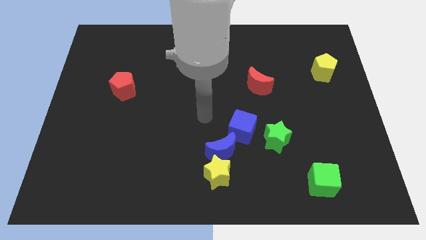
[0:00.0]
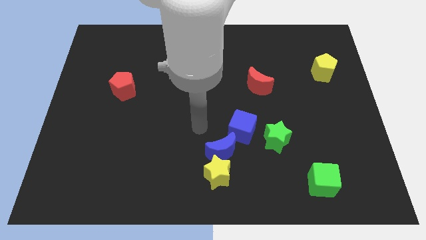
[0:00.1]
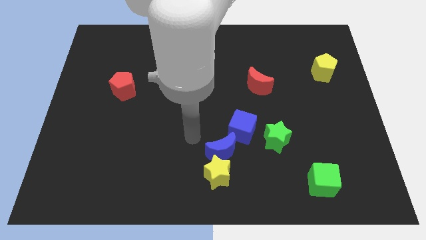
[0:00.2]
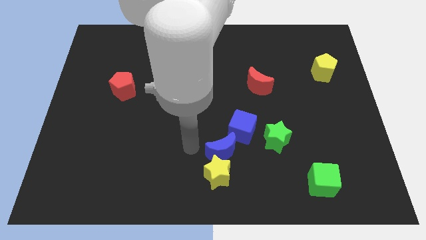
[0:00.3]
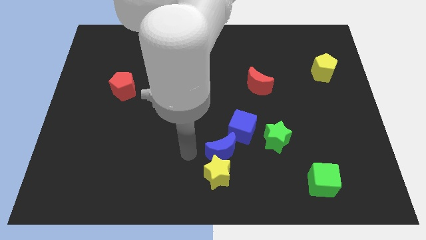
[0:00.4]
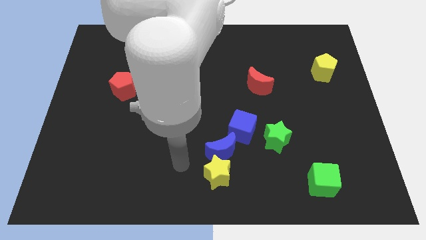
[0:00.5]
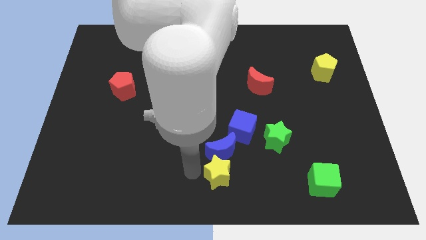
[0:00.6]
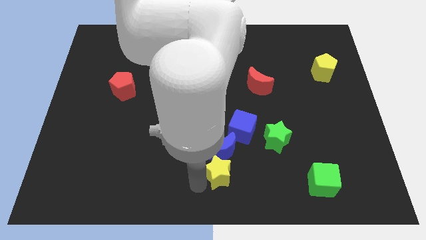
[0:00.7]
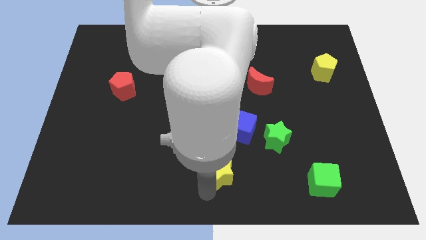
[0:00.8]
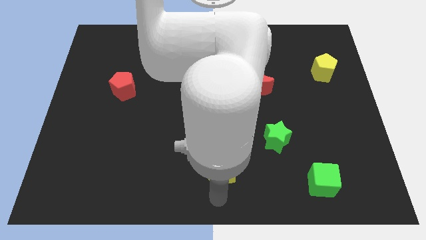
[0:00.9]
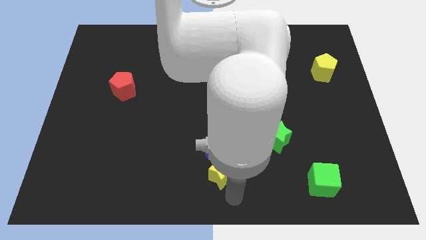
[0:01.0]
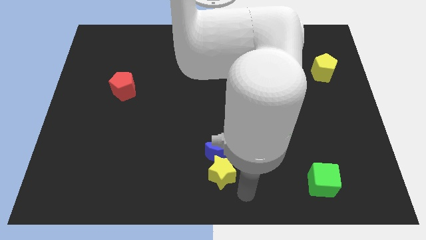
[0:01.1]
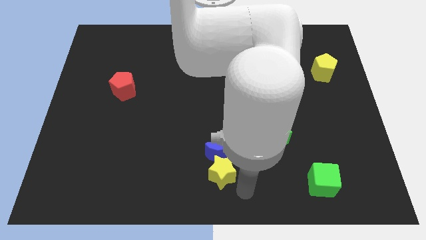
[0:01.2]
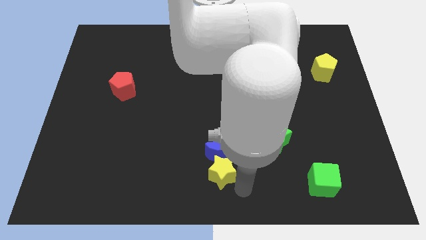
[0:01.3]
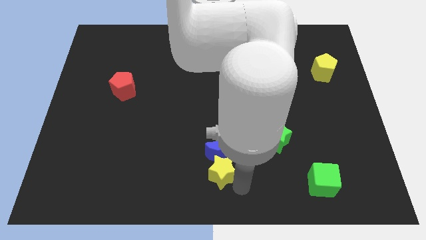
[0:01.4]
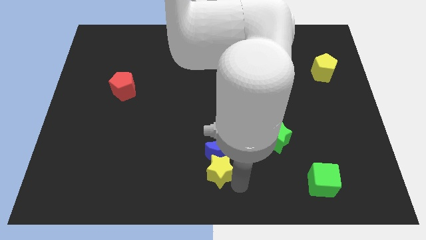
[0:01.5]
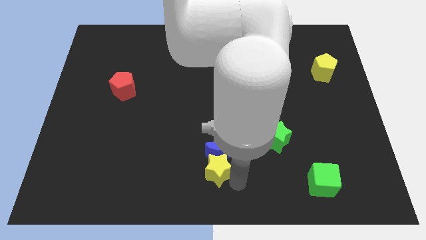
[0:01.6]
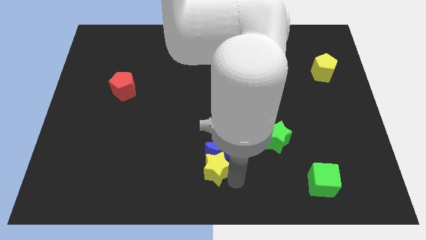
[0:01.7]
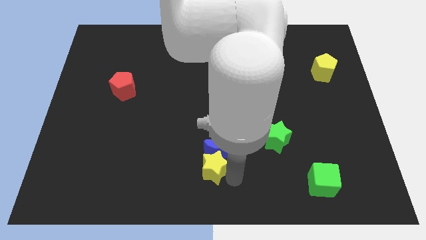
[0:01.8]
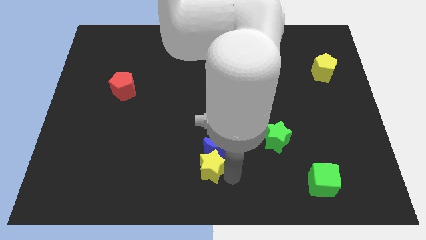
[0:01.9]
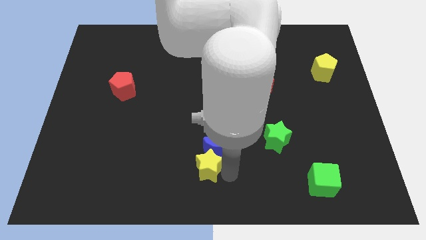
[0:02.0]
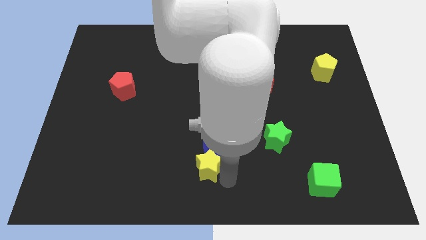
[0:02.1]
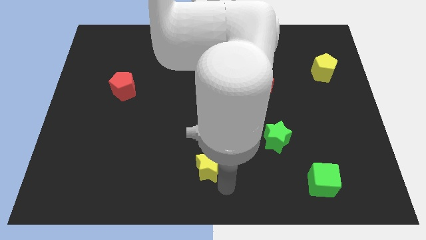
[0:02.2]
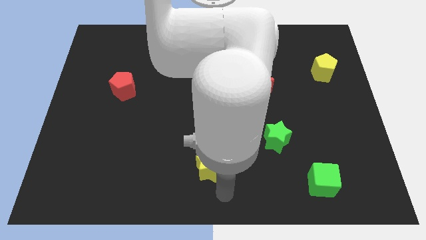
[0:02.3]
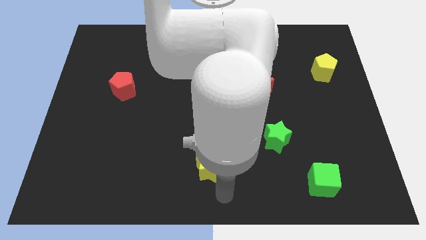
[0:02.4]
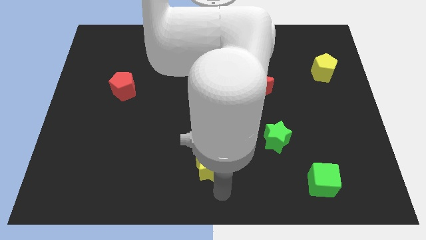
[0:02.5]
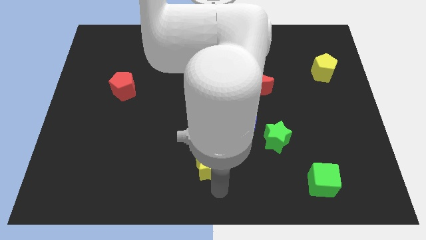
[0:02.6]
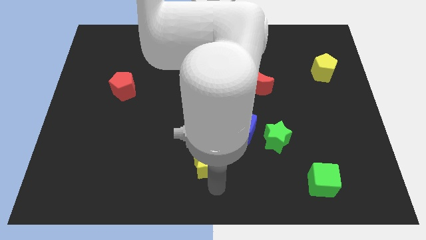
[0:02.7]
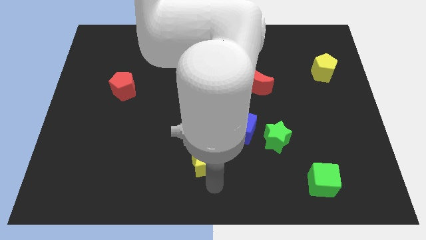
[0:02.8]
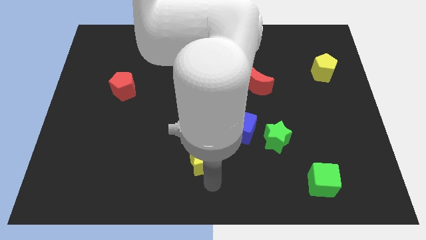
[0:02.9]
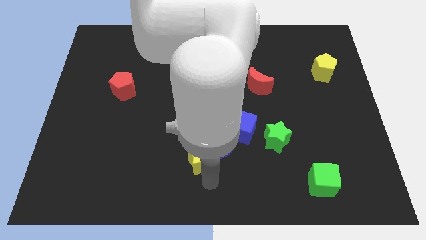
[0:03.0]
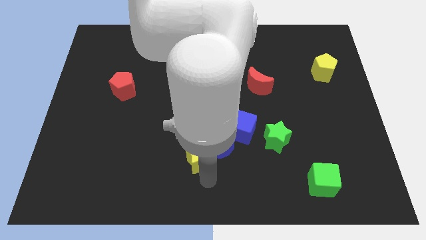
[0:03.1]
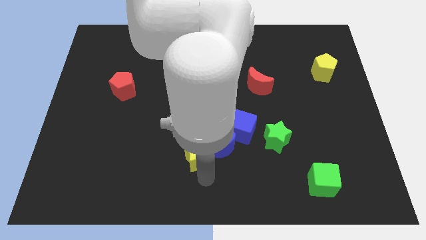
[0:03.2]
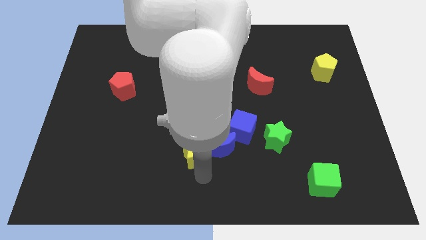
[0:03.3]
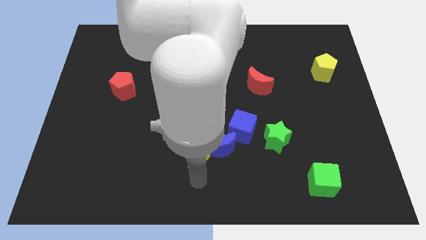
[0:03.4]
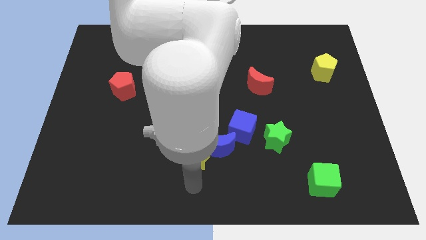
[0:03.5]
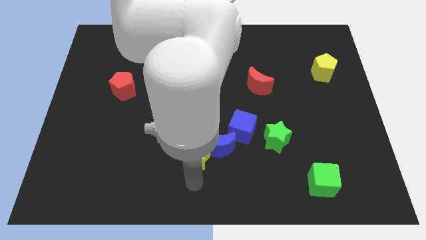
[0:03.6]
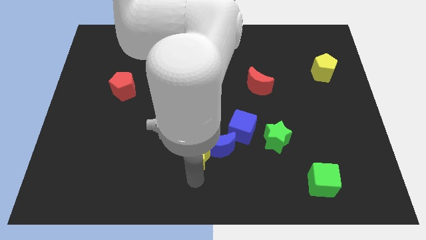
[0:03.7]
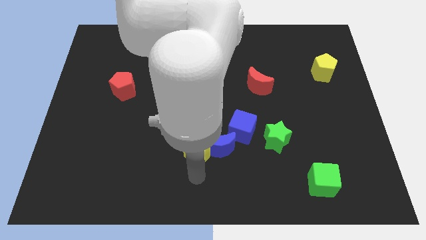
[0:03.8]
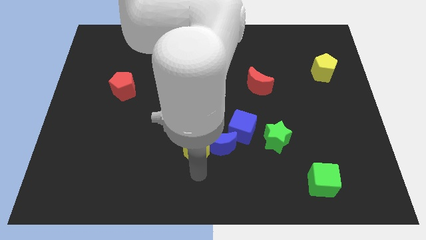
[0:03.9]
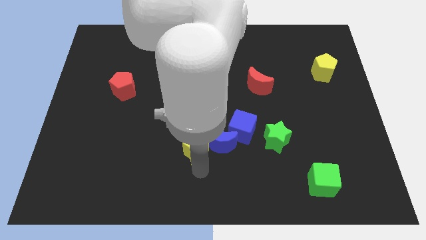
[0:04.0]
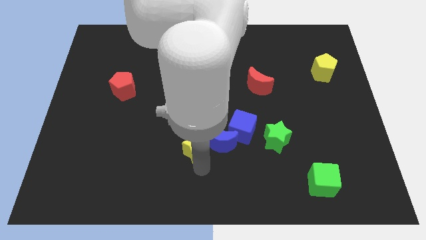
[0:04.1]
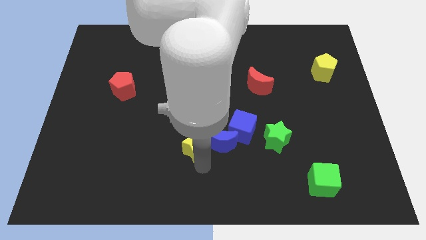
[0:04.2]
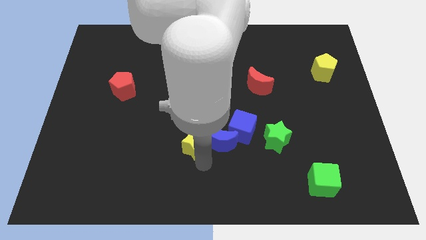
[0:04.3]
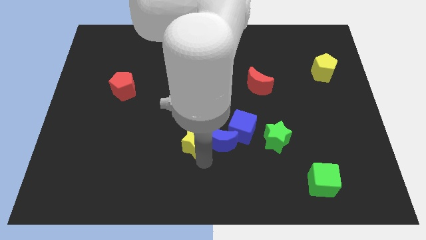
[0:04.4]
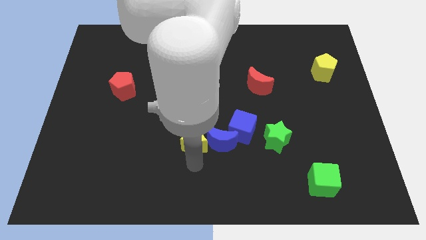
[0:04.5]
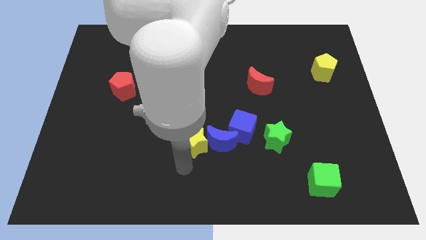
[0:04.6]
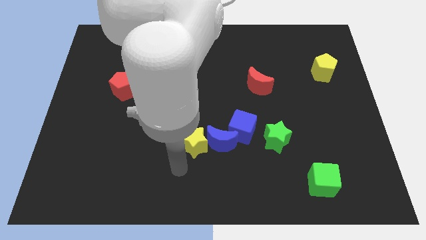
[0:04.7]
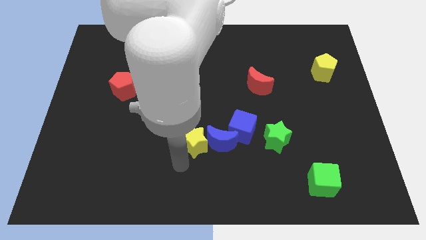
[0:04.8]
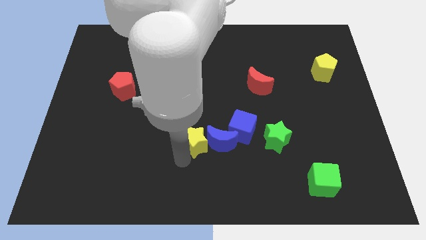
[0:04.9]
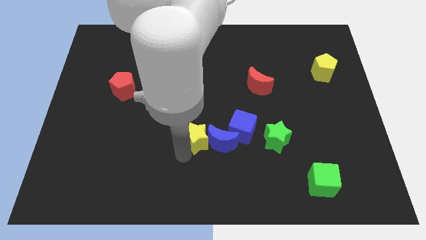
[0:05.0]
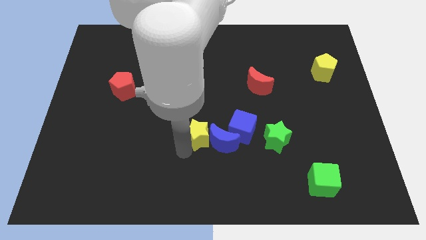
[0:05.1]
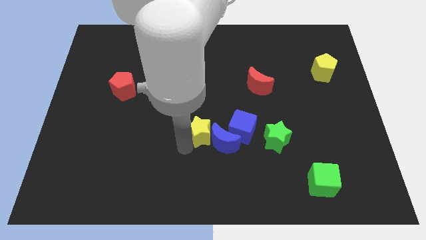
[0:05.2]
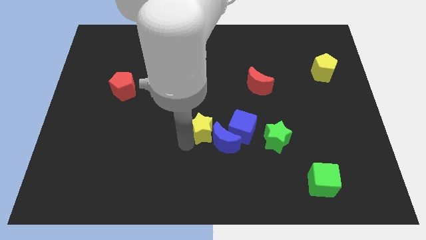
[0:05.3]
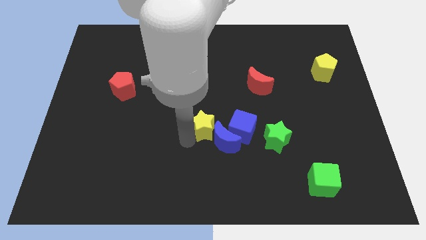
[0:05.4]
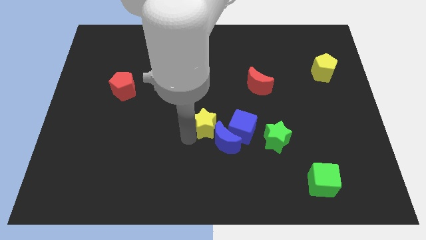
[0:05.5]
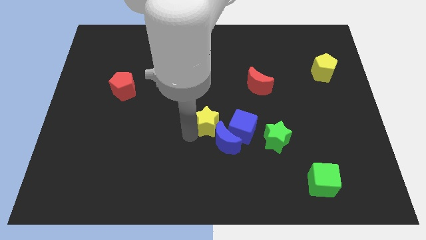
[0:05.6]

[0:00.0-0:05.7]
slide the yellow star diagonally up and to the left of the blue cube

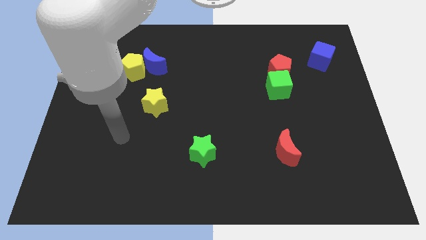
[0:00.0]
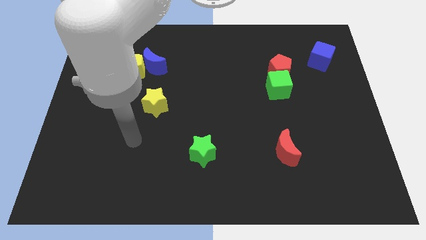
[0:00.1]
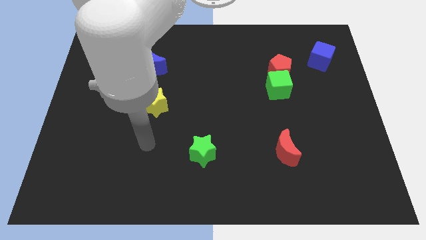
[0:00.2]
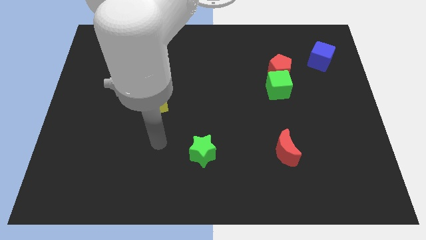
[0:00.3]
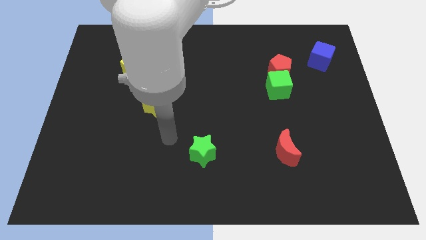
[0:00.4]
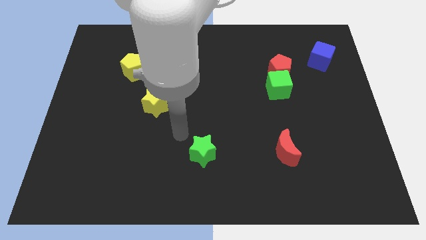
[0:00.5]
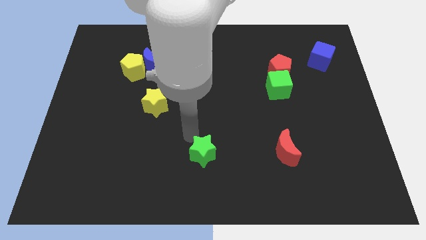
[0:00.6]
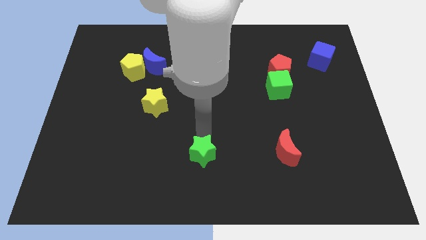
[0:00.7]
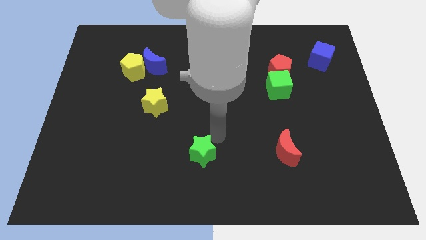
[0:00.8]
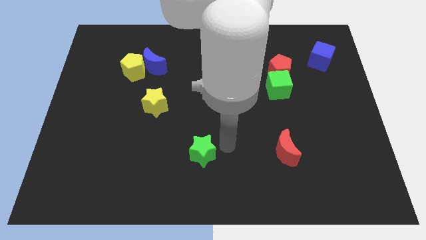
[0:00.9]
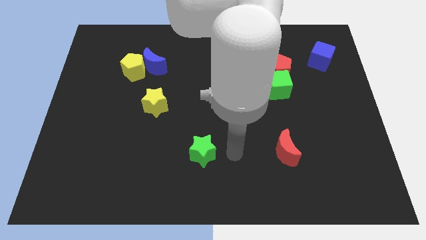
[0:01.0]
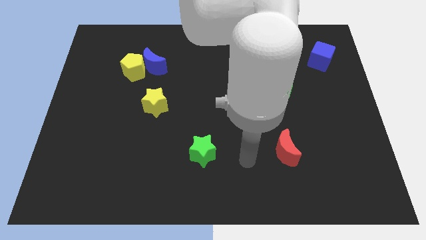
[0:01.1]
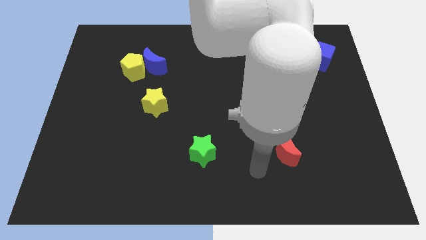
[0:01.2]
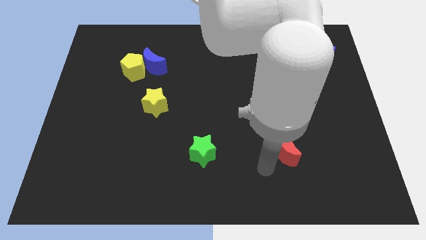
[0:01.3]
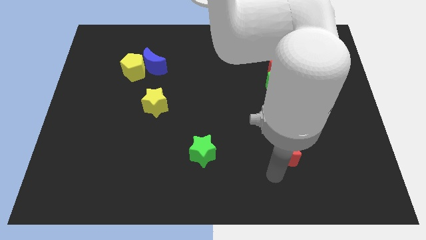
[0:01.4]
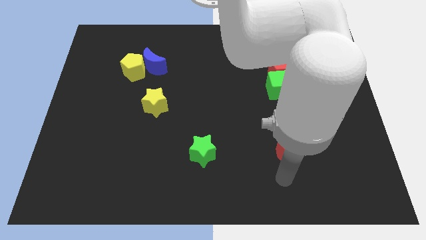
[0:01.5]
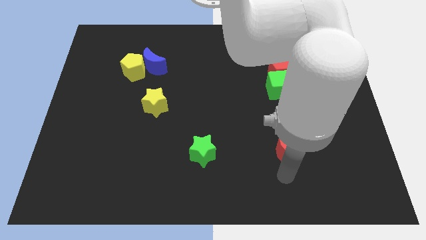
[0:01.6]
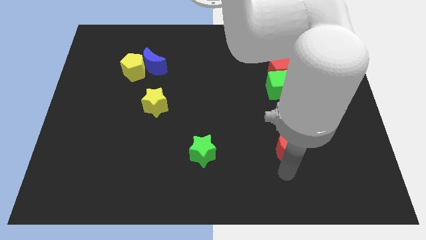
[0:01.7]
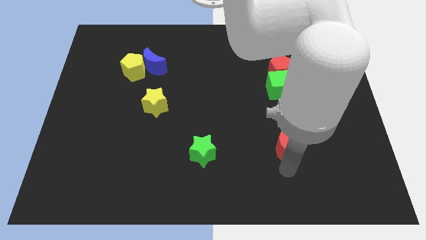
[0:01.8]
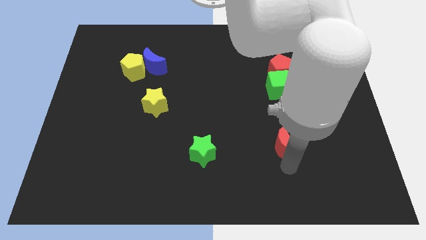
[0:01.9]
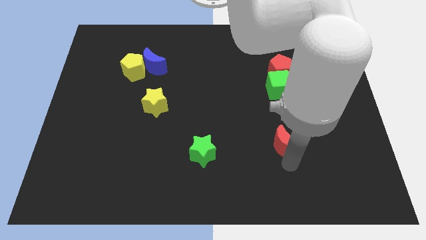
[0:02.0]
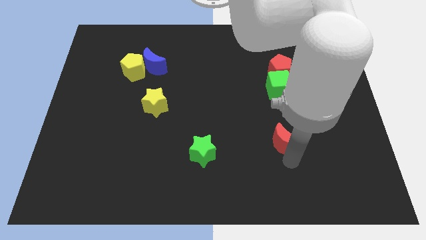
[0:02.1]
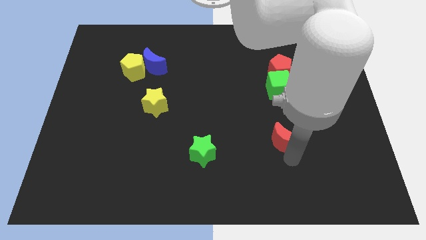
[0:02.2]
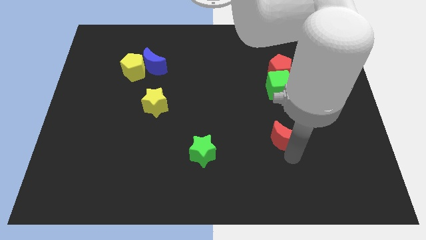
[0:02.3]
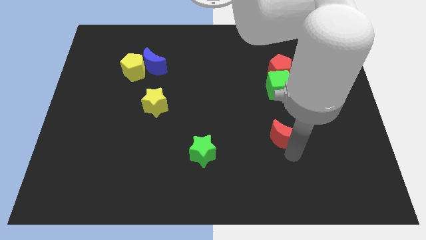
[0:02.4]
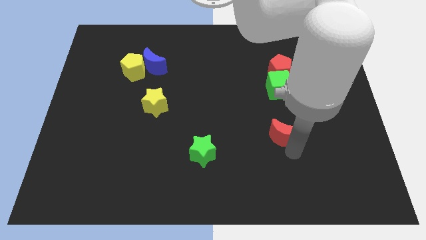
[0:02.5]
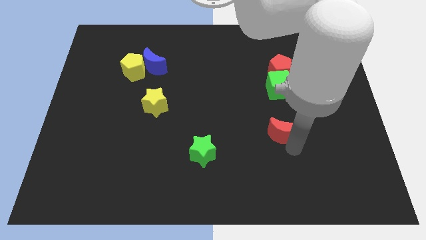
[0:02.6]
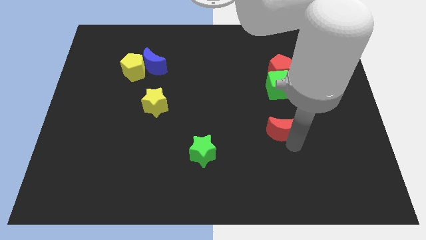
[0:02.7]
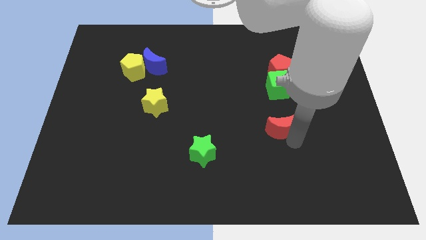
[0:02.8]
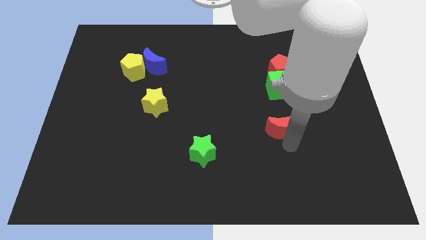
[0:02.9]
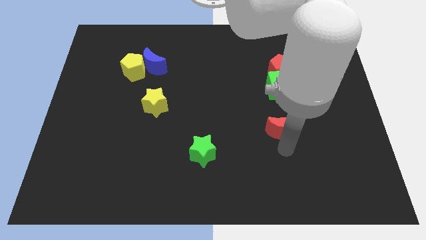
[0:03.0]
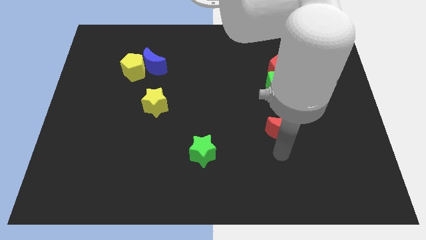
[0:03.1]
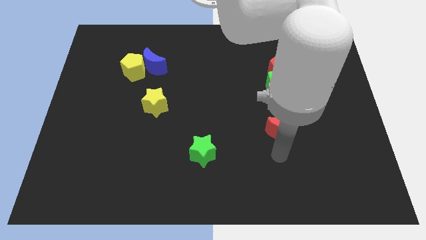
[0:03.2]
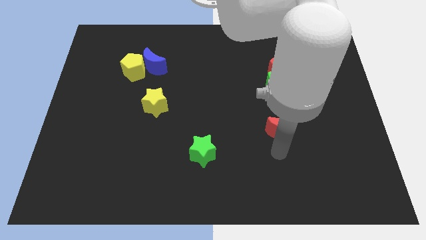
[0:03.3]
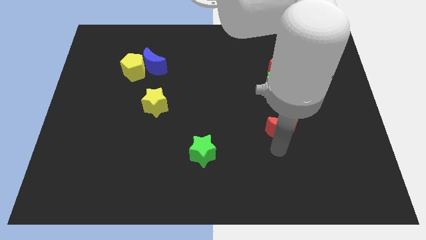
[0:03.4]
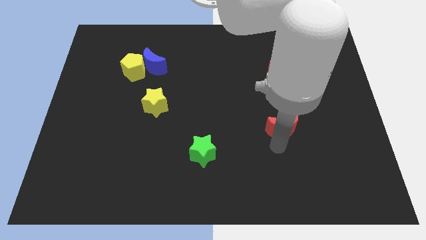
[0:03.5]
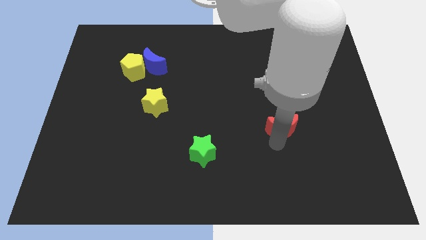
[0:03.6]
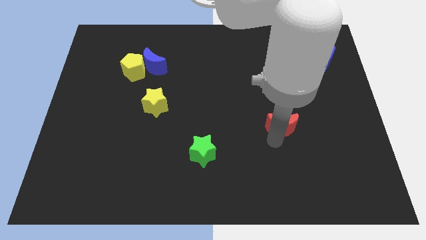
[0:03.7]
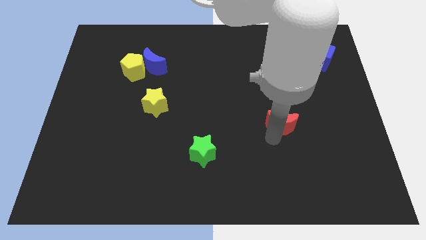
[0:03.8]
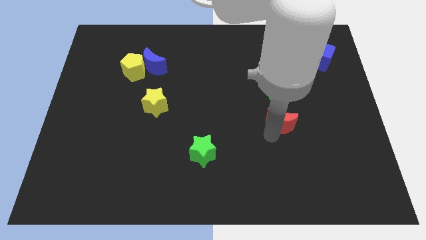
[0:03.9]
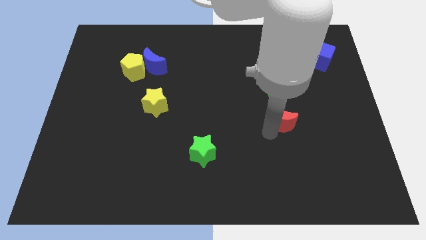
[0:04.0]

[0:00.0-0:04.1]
put the red moon below the red pentagon
